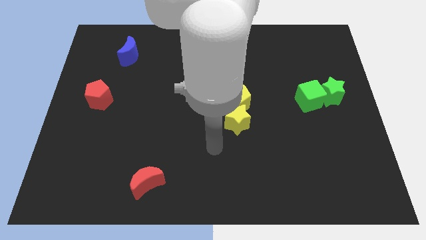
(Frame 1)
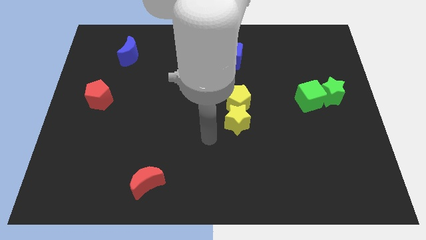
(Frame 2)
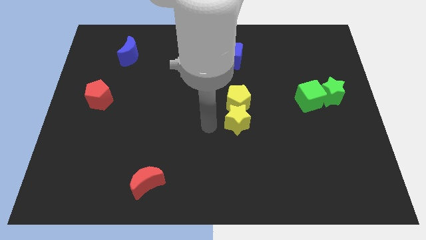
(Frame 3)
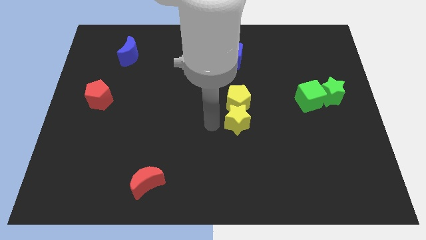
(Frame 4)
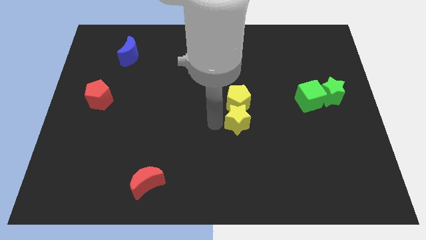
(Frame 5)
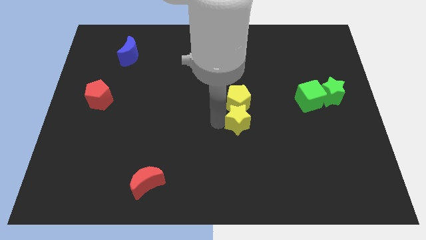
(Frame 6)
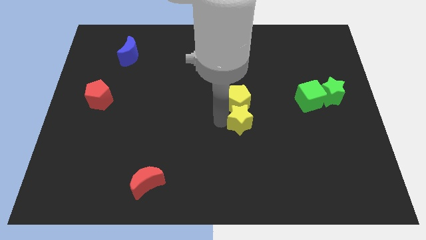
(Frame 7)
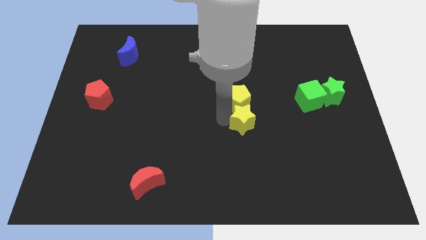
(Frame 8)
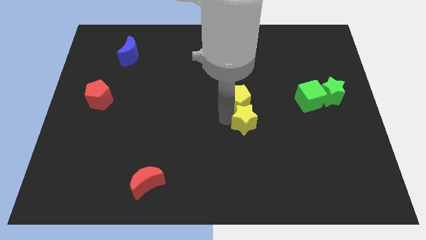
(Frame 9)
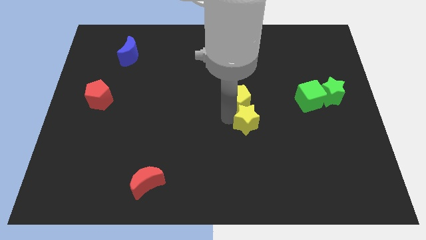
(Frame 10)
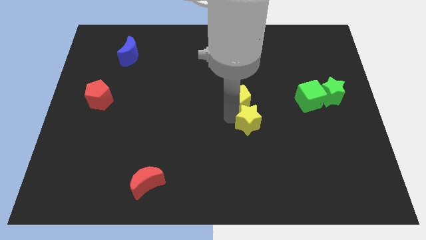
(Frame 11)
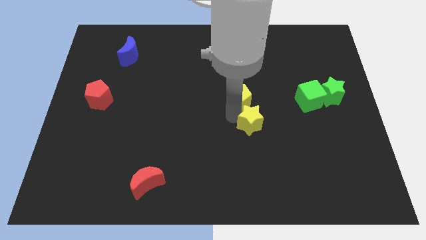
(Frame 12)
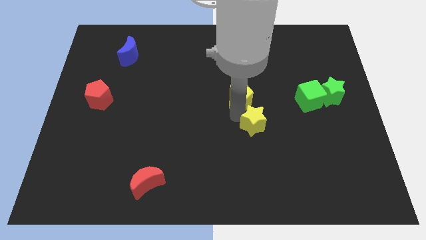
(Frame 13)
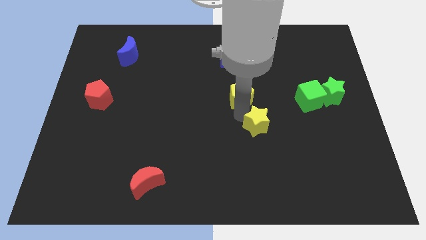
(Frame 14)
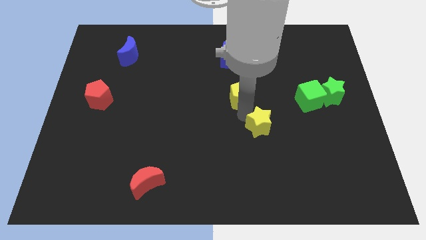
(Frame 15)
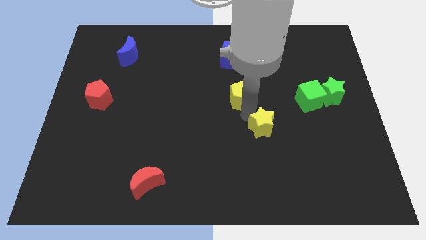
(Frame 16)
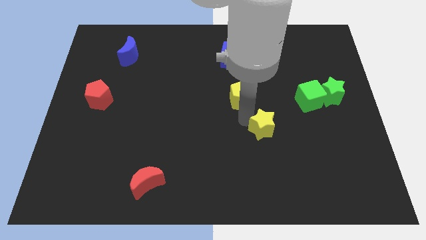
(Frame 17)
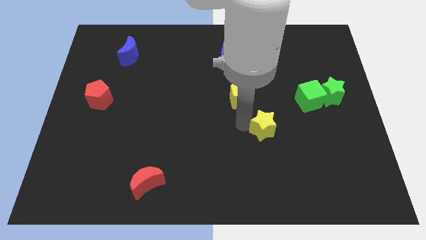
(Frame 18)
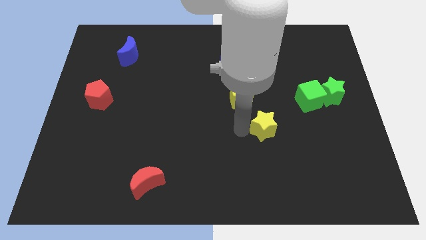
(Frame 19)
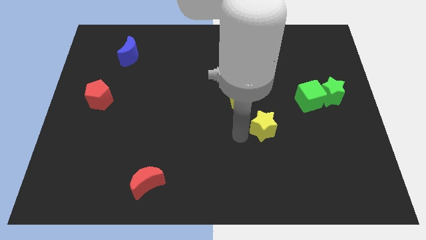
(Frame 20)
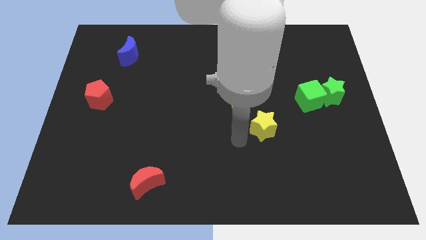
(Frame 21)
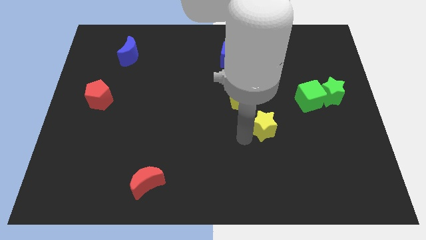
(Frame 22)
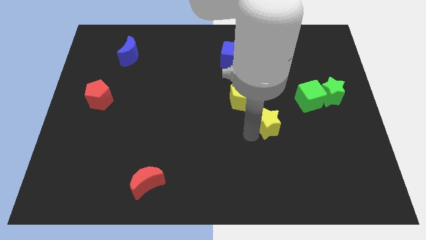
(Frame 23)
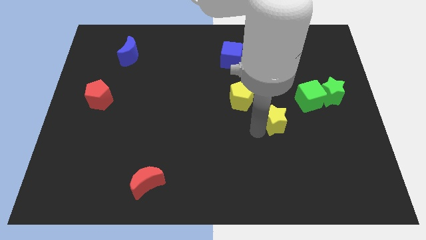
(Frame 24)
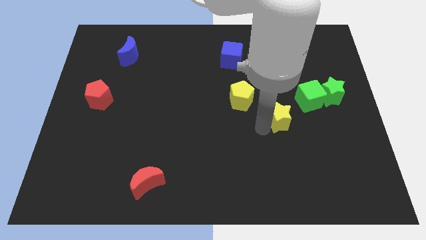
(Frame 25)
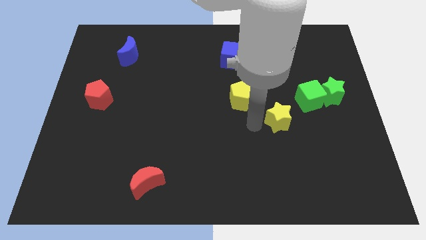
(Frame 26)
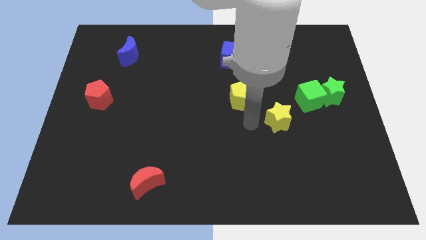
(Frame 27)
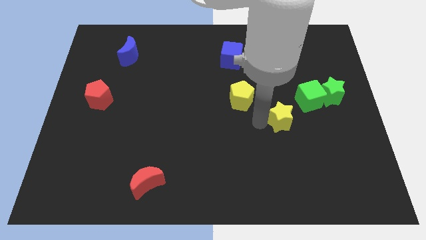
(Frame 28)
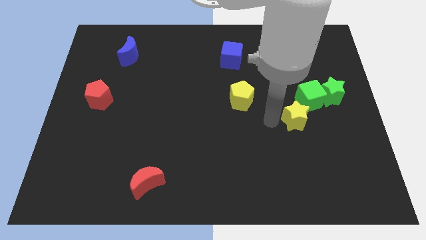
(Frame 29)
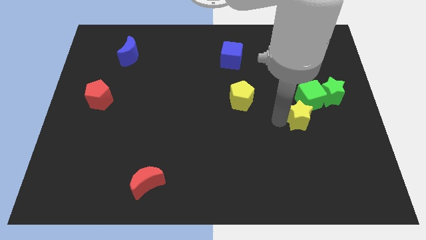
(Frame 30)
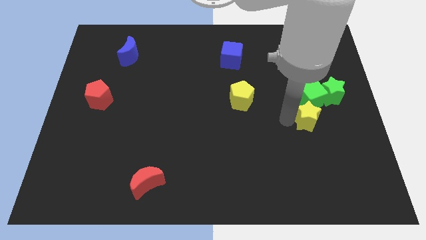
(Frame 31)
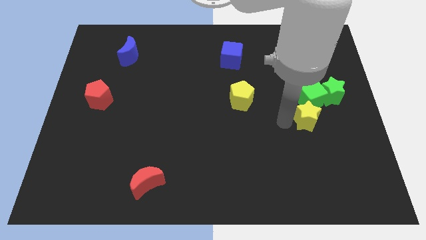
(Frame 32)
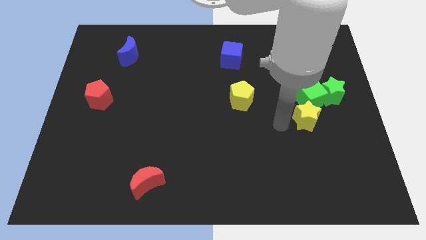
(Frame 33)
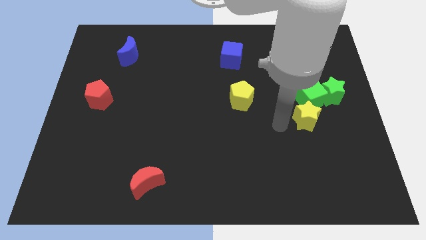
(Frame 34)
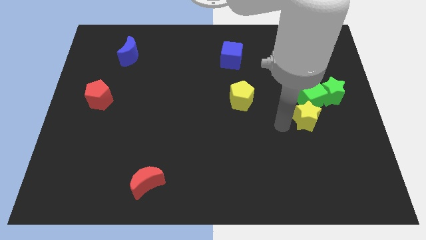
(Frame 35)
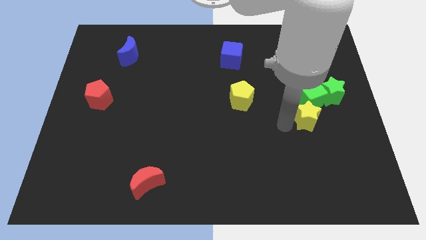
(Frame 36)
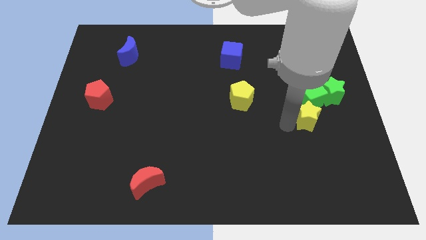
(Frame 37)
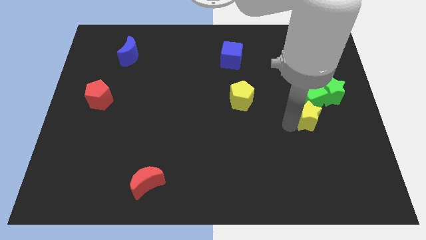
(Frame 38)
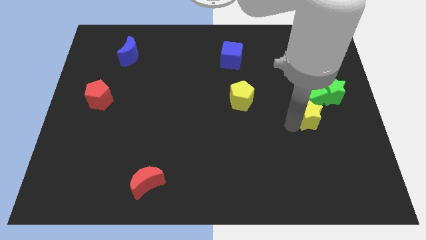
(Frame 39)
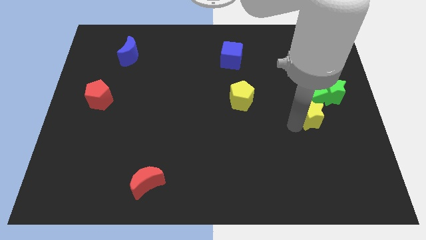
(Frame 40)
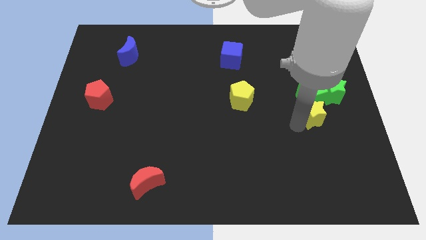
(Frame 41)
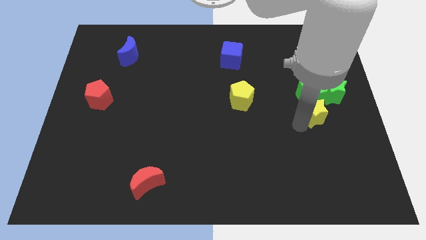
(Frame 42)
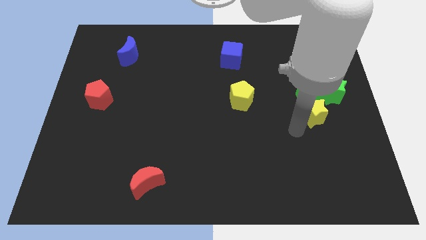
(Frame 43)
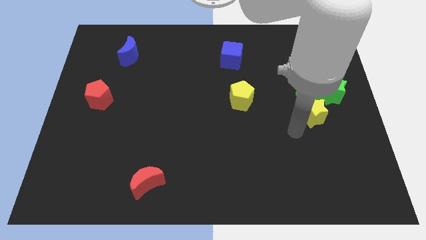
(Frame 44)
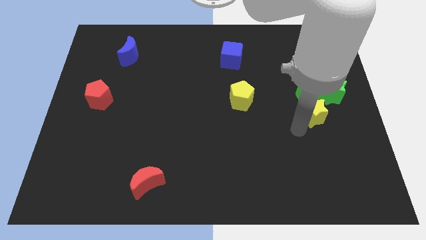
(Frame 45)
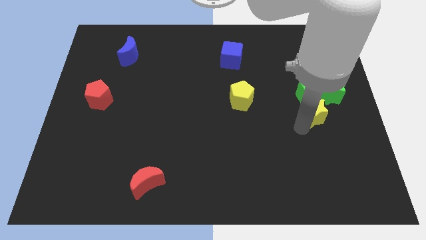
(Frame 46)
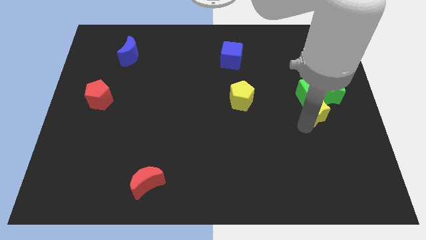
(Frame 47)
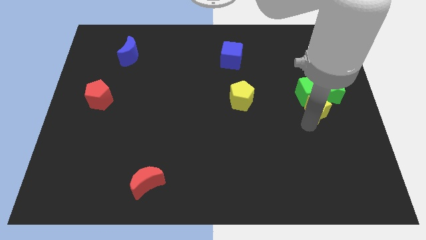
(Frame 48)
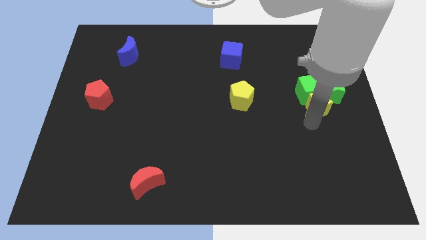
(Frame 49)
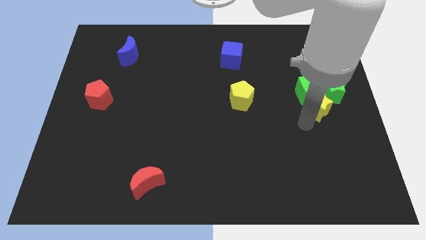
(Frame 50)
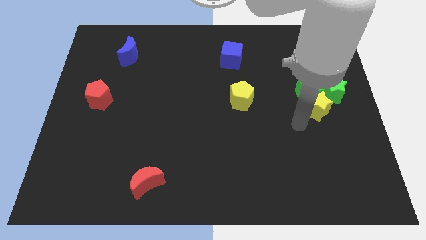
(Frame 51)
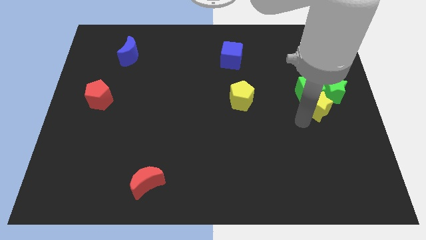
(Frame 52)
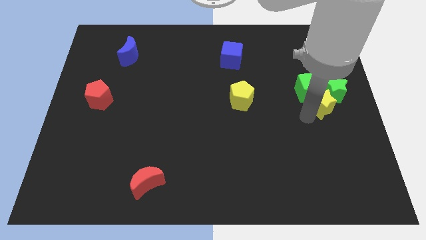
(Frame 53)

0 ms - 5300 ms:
push the yellow star close to the green star

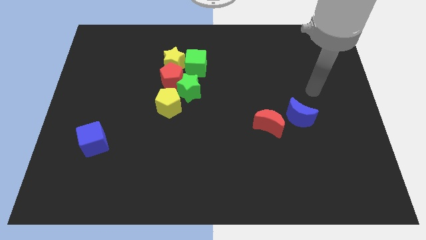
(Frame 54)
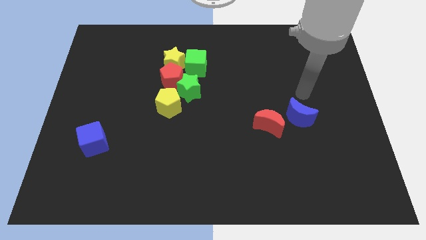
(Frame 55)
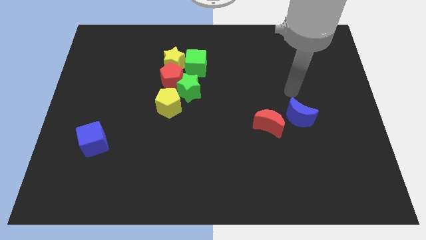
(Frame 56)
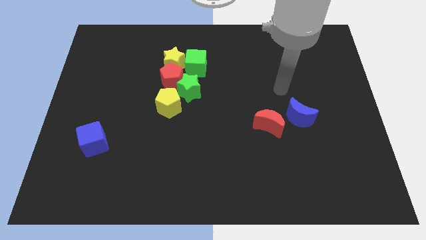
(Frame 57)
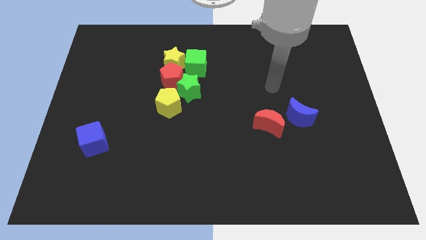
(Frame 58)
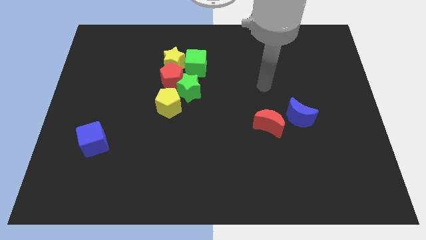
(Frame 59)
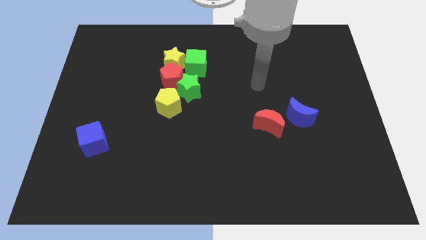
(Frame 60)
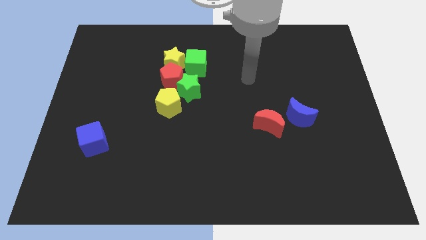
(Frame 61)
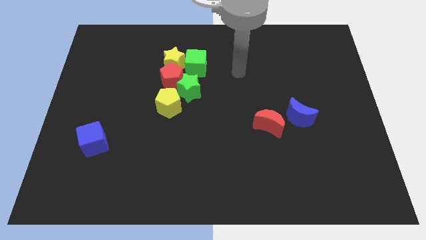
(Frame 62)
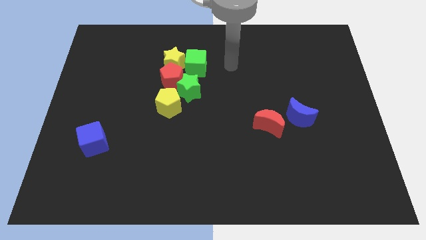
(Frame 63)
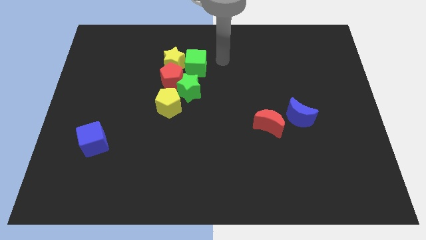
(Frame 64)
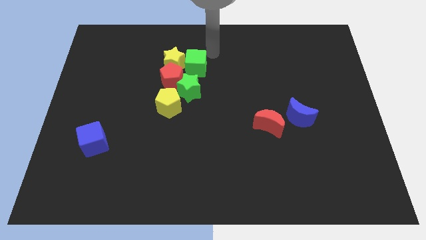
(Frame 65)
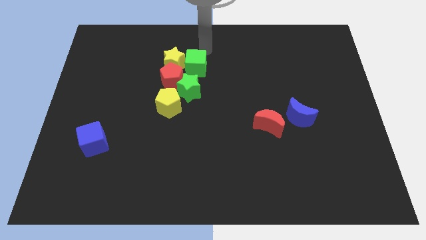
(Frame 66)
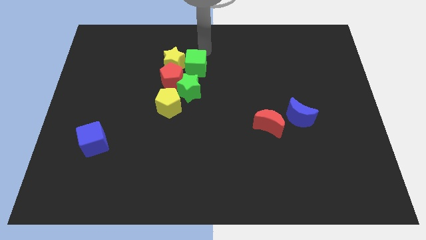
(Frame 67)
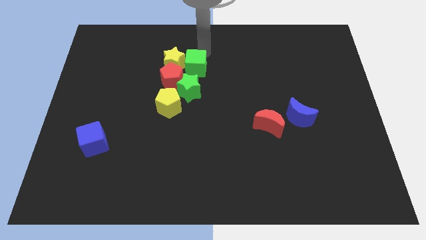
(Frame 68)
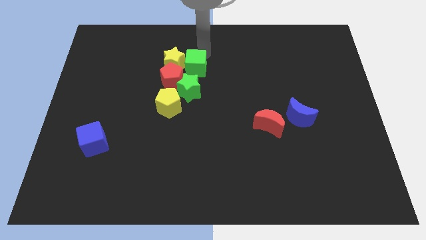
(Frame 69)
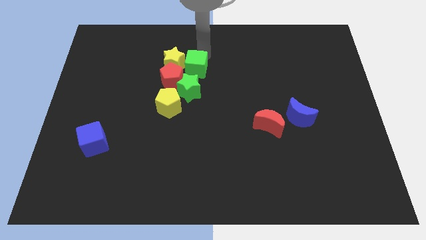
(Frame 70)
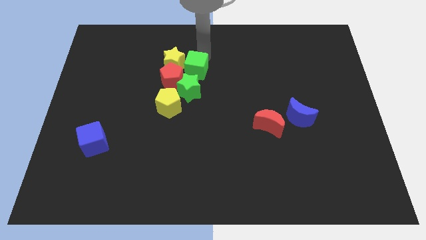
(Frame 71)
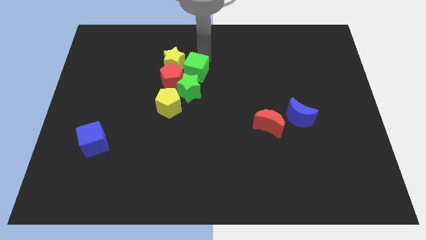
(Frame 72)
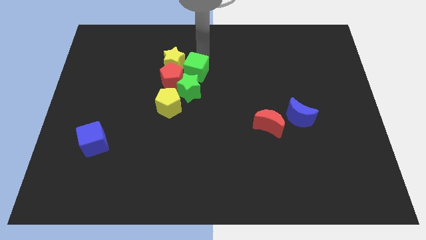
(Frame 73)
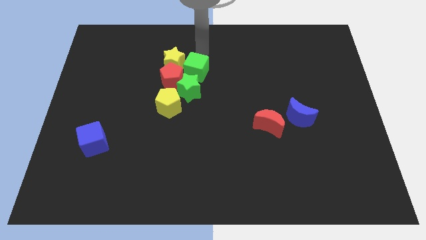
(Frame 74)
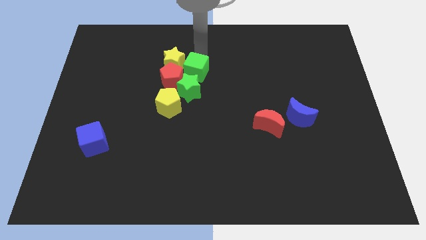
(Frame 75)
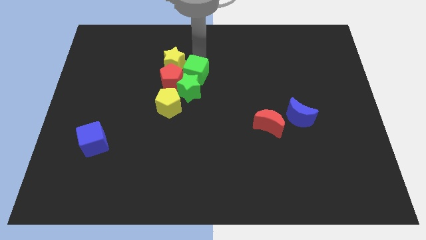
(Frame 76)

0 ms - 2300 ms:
push the green cube close to the green star

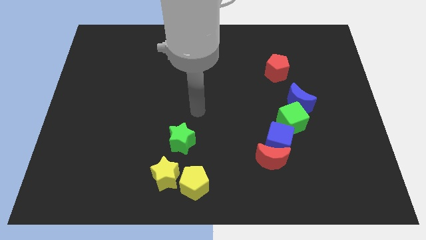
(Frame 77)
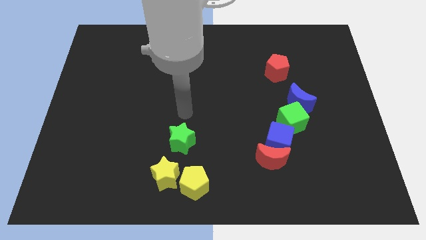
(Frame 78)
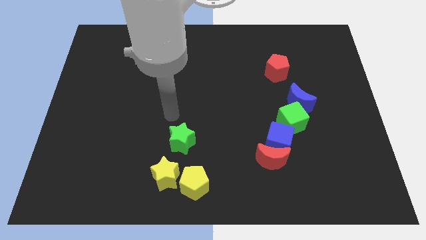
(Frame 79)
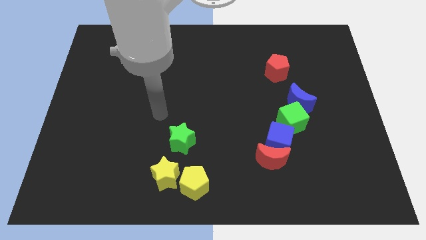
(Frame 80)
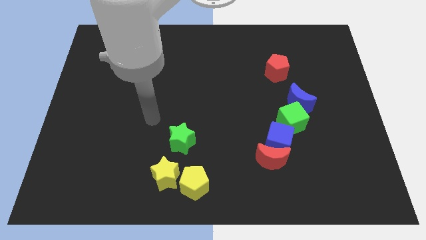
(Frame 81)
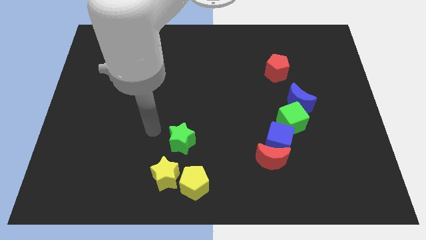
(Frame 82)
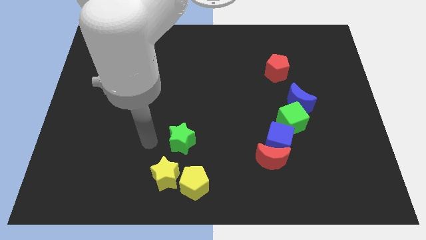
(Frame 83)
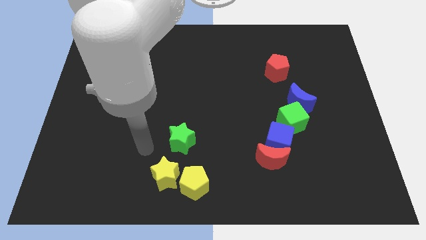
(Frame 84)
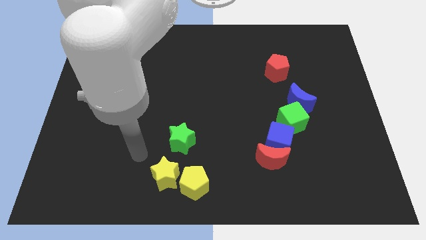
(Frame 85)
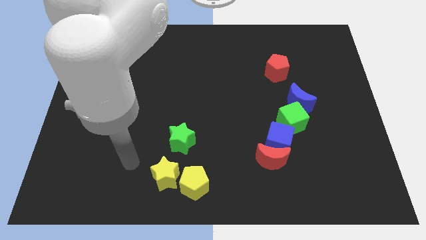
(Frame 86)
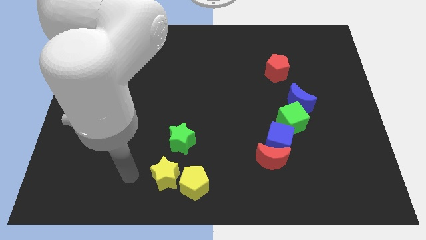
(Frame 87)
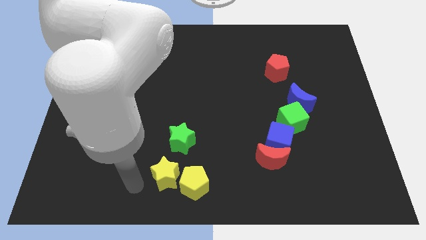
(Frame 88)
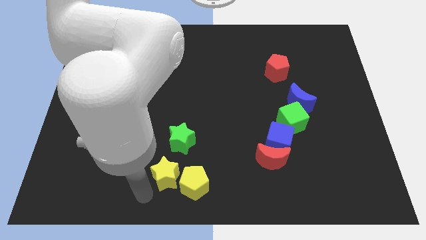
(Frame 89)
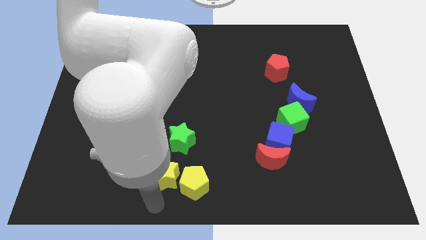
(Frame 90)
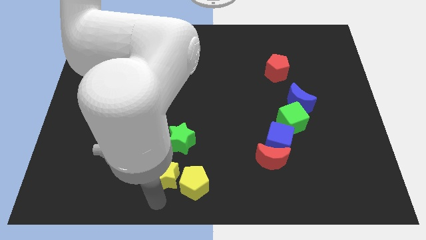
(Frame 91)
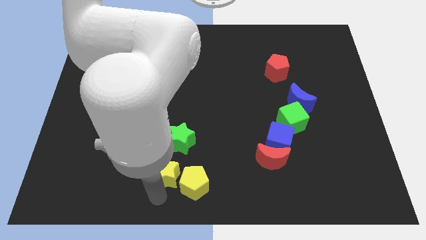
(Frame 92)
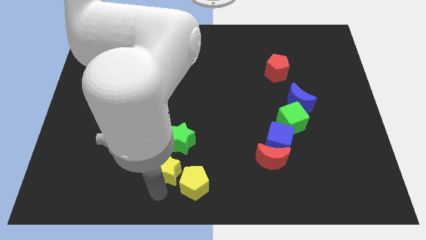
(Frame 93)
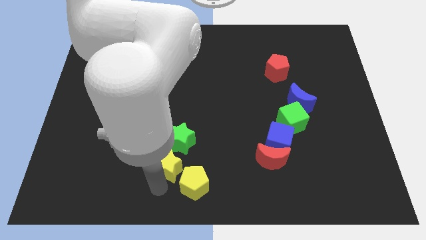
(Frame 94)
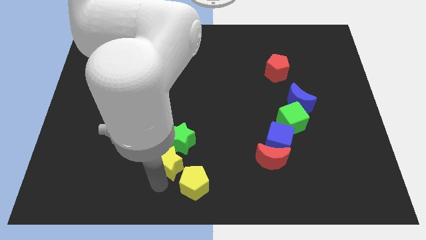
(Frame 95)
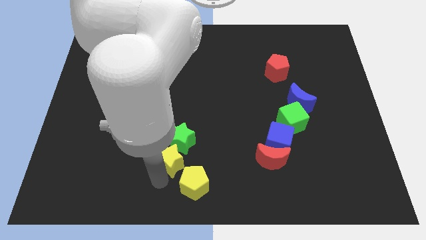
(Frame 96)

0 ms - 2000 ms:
push the yellow star towards the green star
